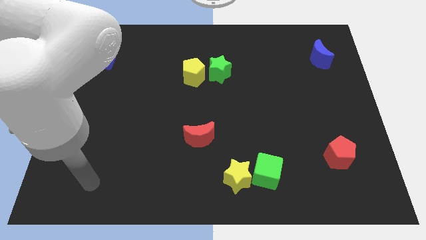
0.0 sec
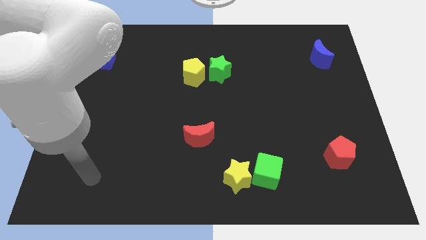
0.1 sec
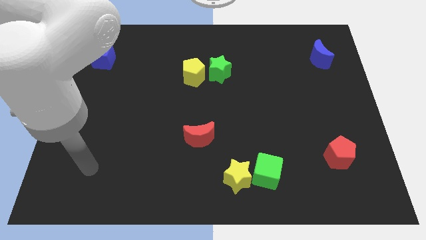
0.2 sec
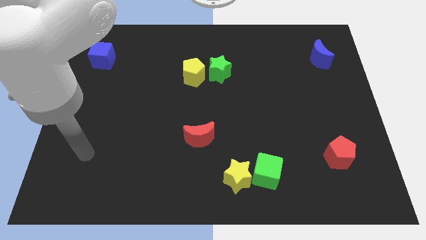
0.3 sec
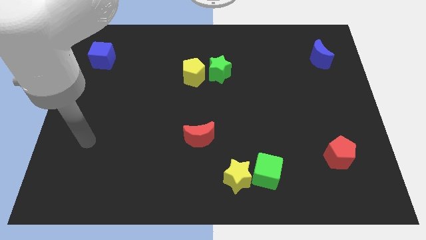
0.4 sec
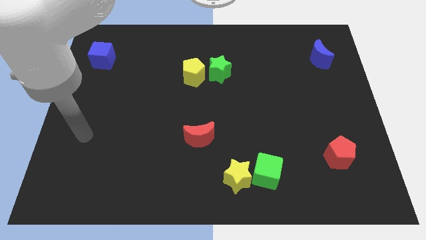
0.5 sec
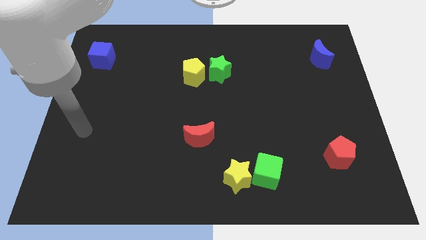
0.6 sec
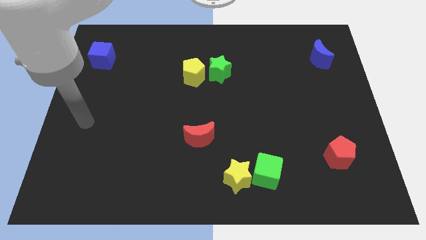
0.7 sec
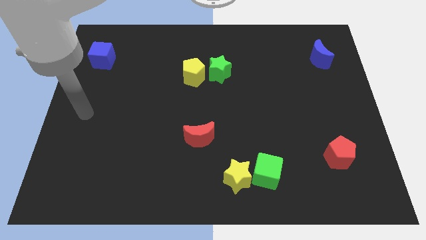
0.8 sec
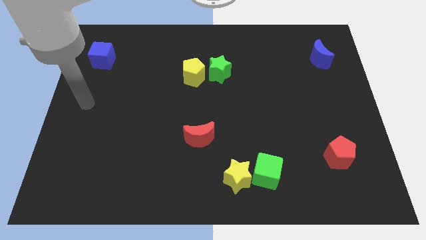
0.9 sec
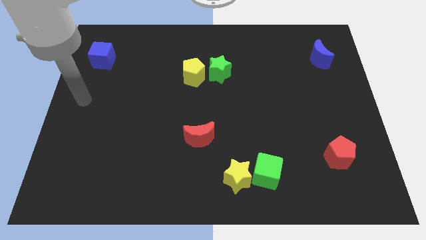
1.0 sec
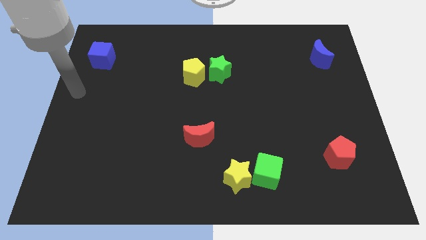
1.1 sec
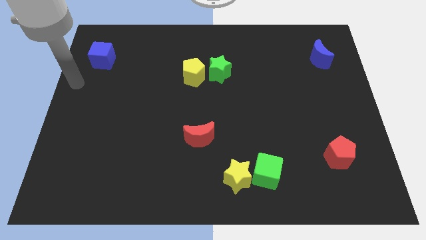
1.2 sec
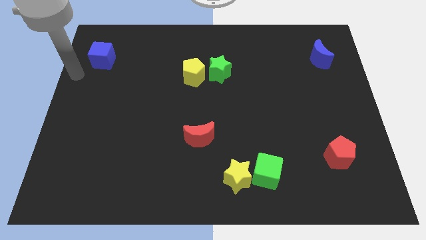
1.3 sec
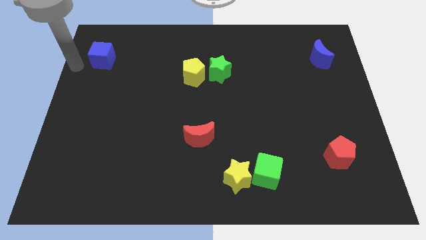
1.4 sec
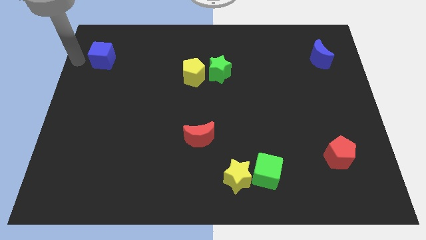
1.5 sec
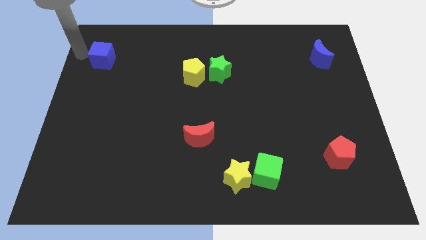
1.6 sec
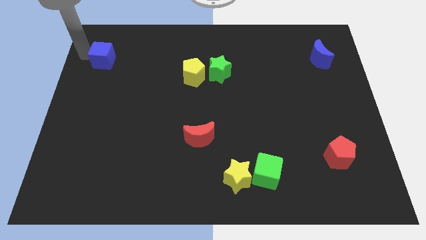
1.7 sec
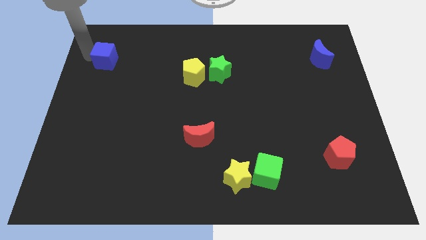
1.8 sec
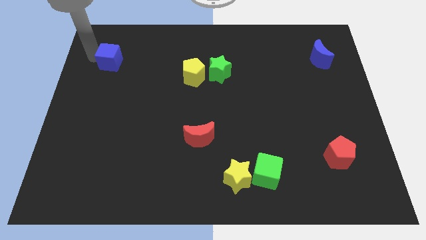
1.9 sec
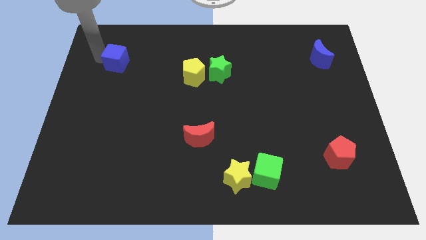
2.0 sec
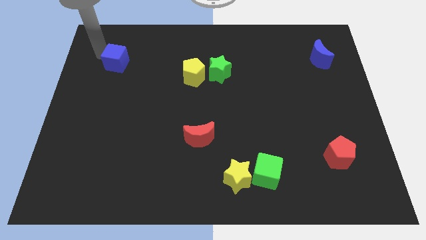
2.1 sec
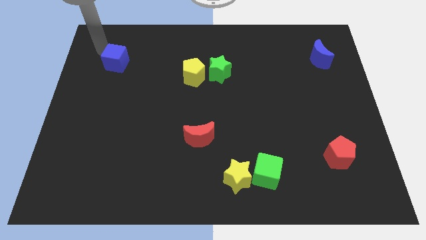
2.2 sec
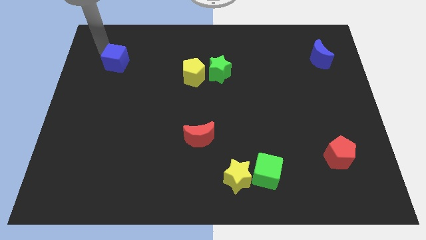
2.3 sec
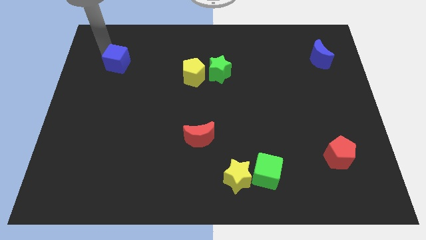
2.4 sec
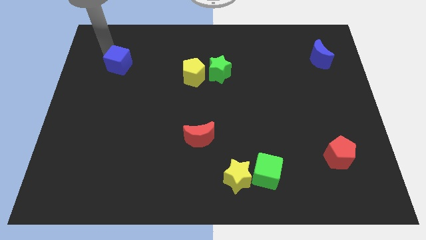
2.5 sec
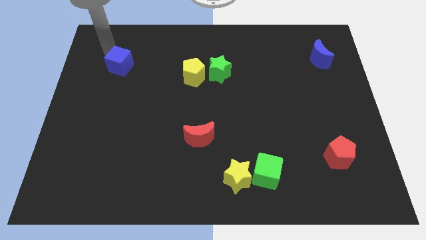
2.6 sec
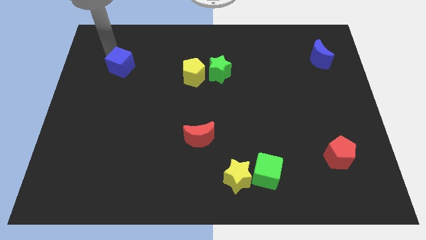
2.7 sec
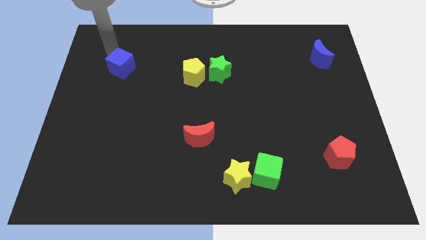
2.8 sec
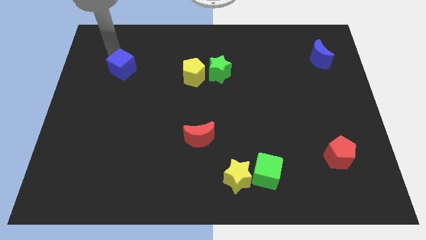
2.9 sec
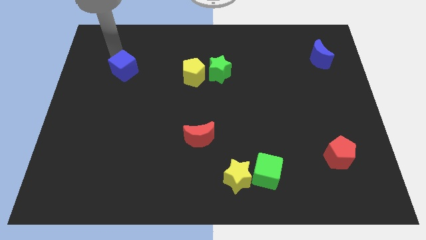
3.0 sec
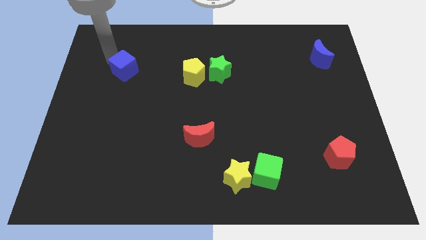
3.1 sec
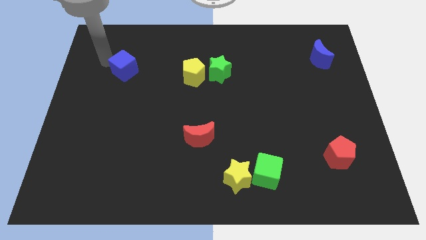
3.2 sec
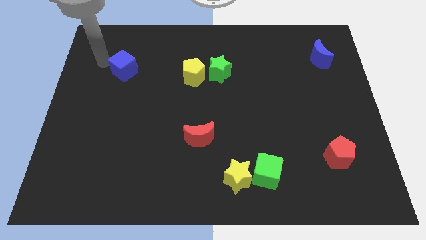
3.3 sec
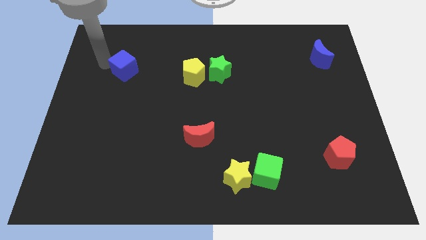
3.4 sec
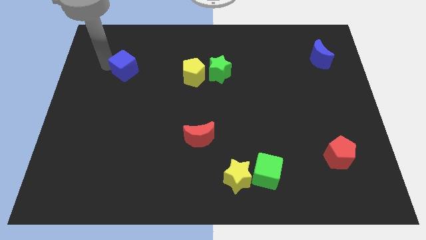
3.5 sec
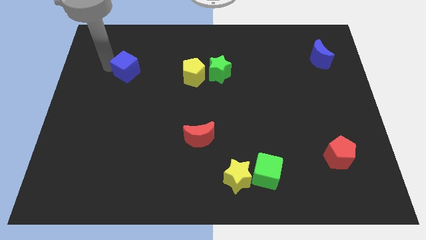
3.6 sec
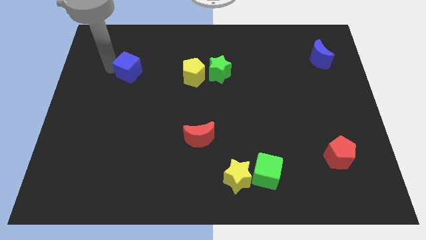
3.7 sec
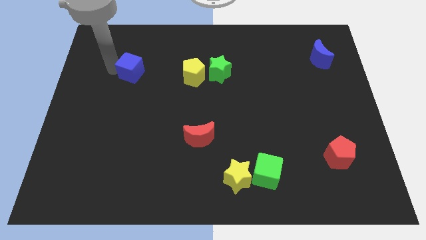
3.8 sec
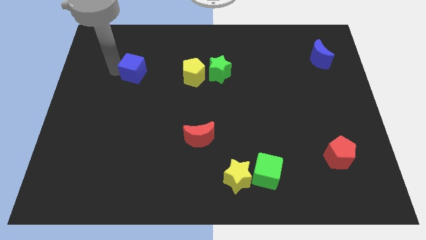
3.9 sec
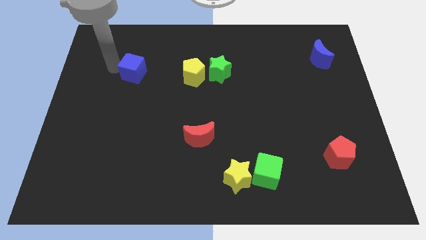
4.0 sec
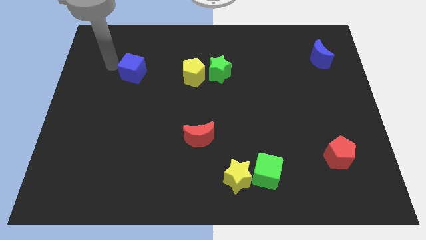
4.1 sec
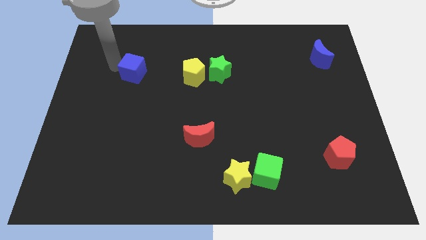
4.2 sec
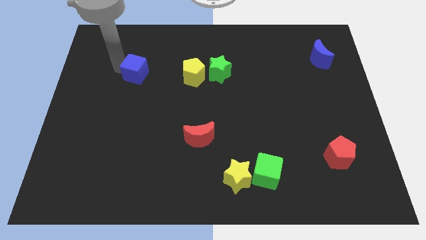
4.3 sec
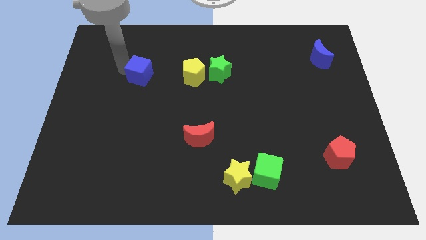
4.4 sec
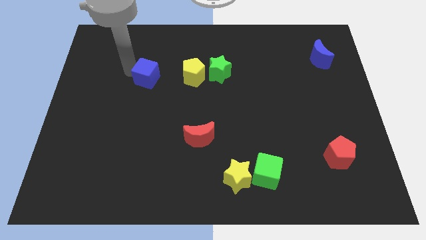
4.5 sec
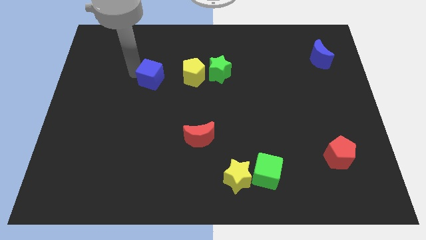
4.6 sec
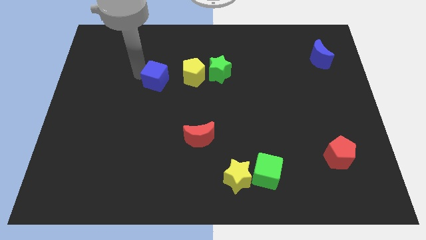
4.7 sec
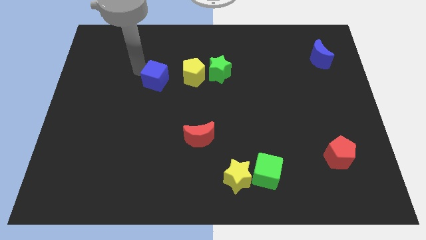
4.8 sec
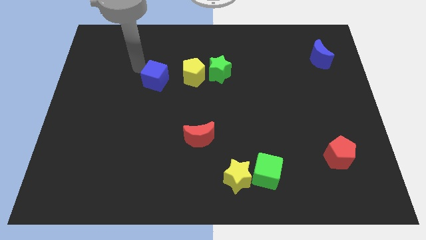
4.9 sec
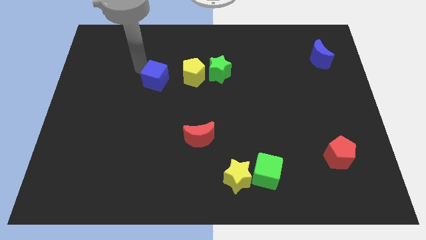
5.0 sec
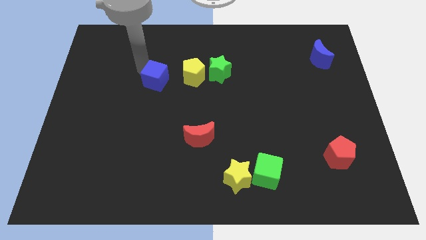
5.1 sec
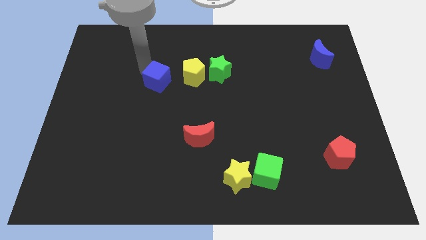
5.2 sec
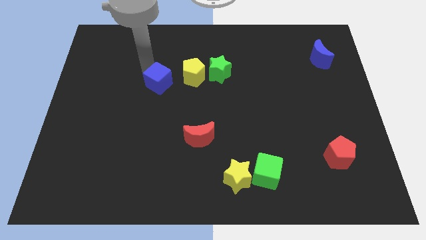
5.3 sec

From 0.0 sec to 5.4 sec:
slide the blue cube to the bottom left side of the yellow pentagon

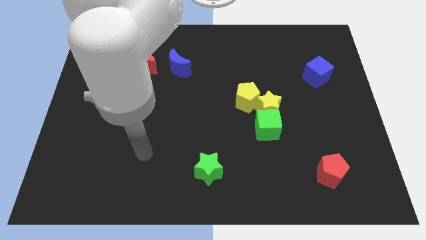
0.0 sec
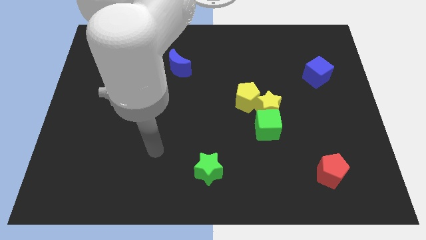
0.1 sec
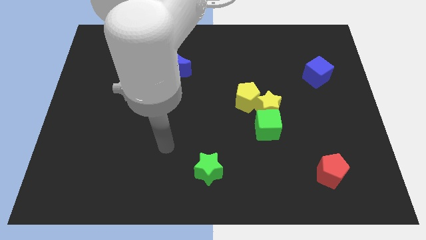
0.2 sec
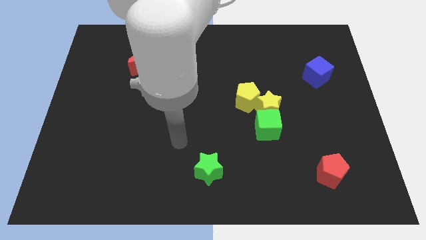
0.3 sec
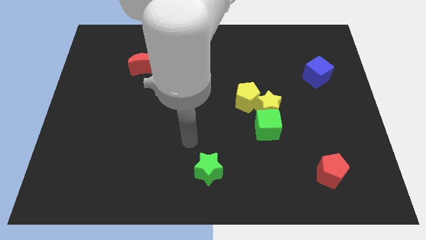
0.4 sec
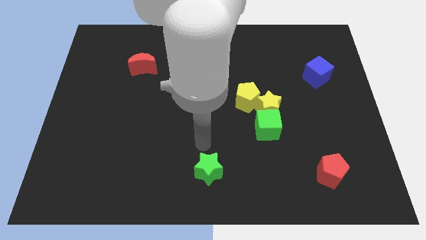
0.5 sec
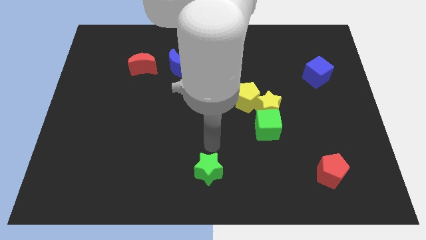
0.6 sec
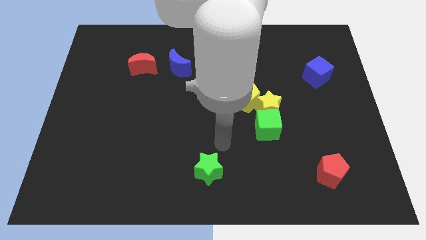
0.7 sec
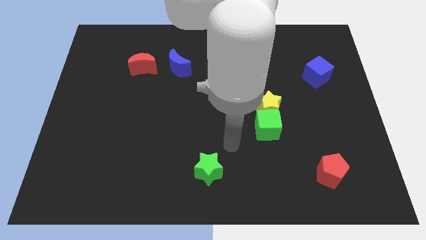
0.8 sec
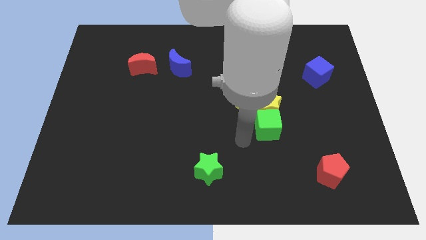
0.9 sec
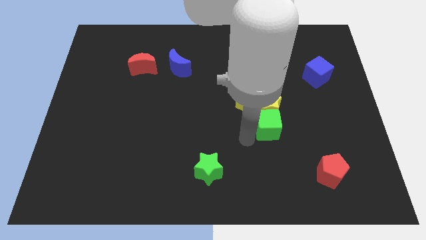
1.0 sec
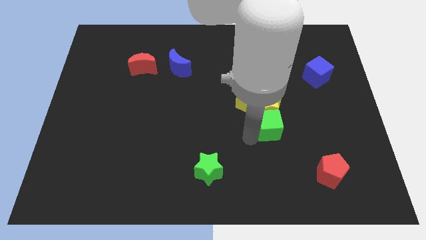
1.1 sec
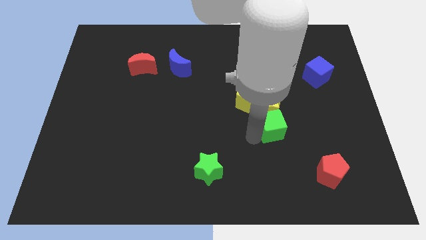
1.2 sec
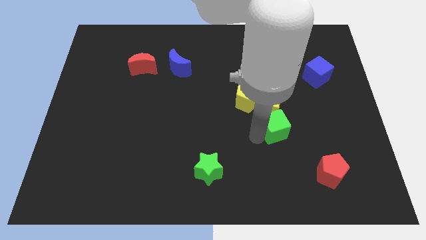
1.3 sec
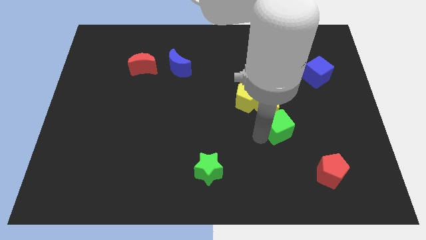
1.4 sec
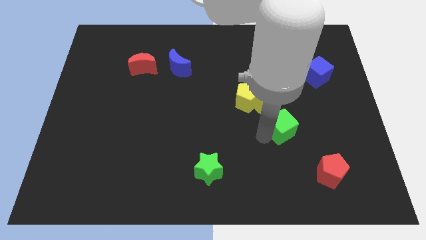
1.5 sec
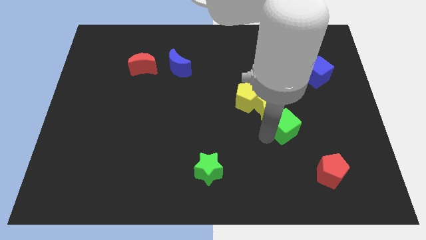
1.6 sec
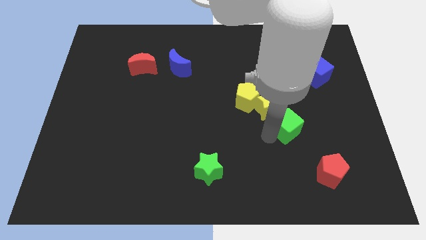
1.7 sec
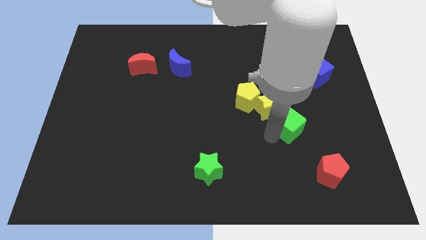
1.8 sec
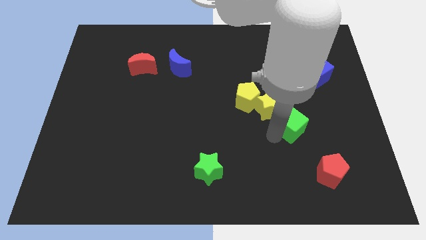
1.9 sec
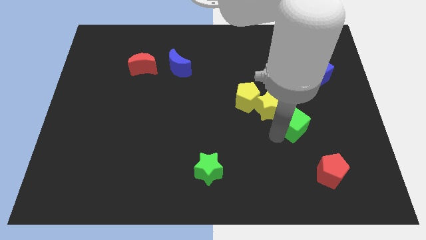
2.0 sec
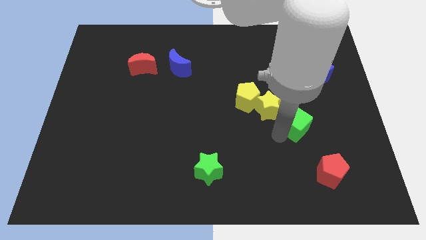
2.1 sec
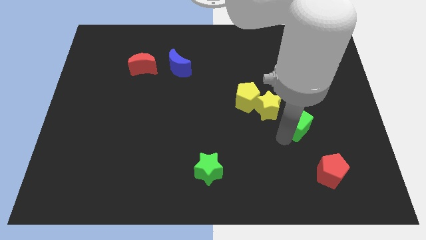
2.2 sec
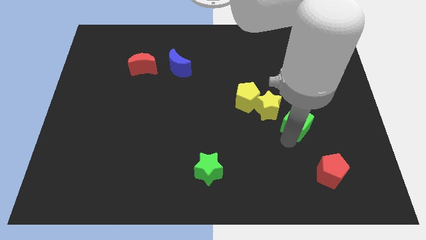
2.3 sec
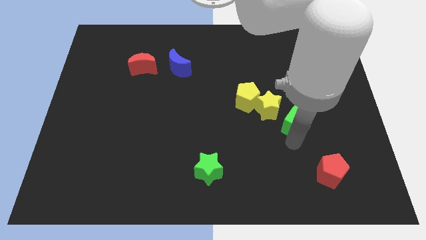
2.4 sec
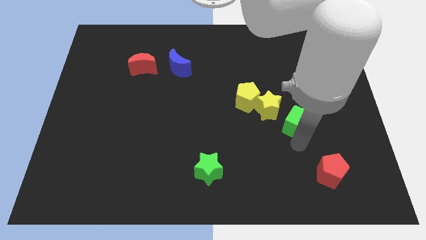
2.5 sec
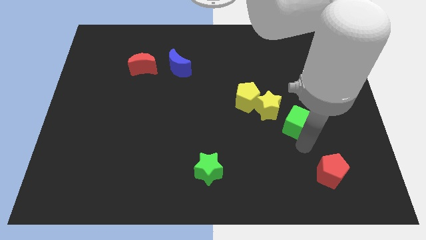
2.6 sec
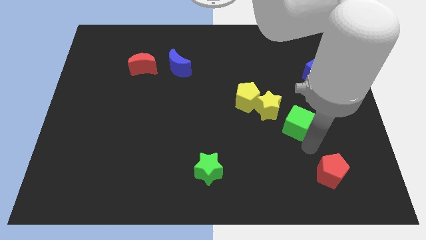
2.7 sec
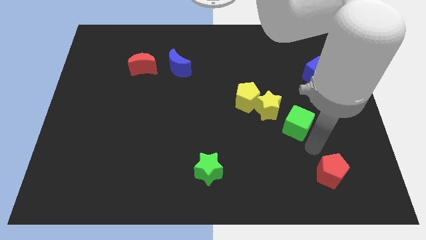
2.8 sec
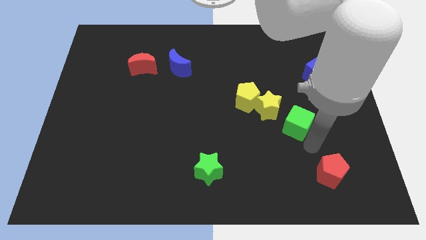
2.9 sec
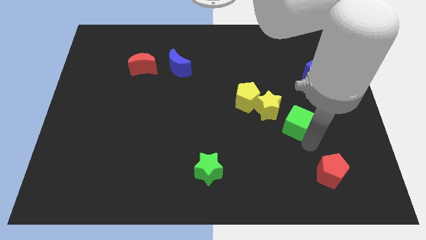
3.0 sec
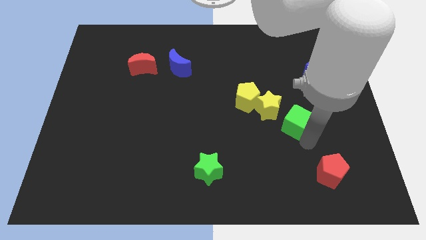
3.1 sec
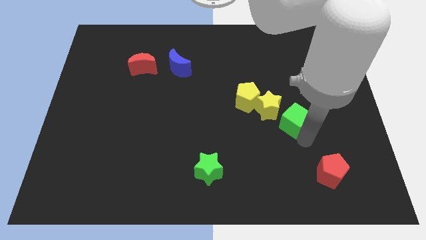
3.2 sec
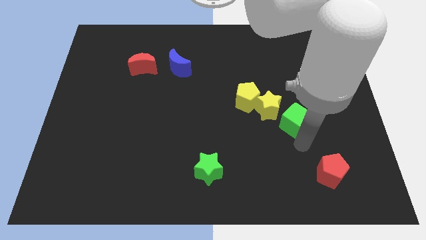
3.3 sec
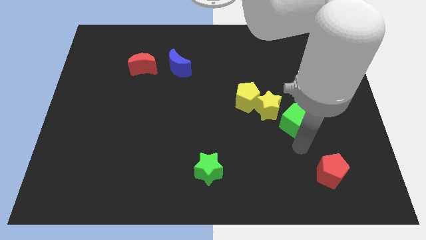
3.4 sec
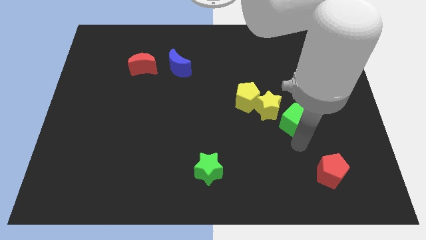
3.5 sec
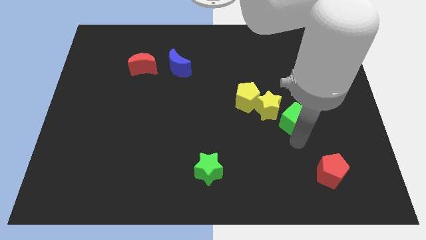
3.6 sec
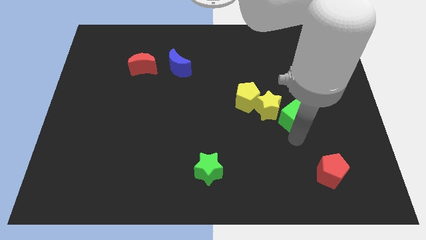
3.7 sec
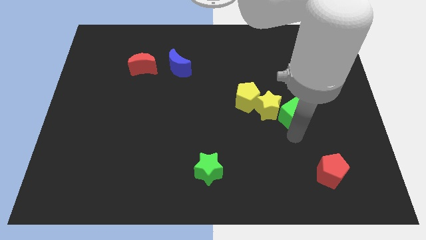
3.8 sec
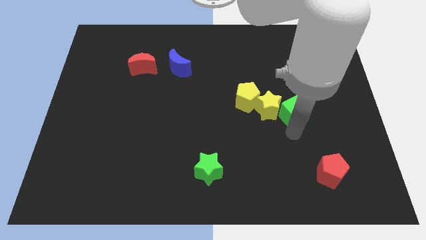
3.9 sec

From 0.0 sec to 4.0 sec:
slide the green cube to the right side of the yellow pentagon
